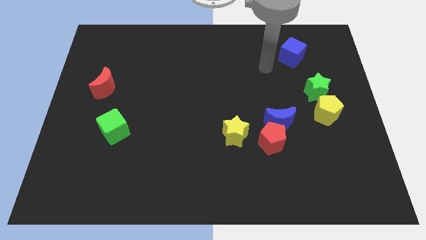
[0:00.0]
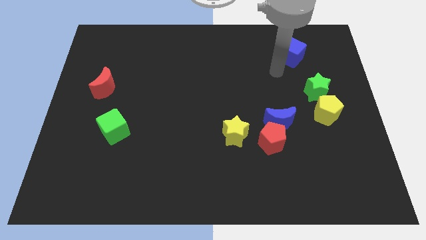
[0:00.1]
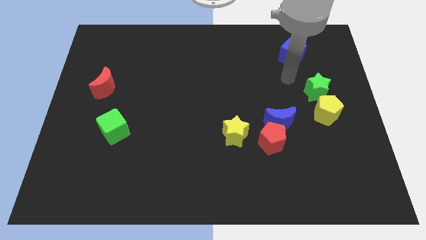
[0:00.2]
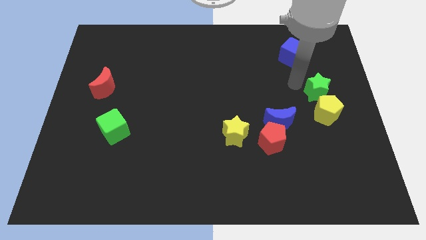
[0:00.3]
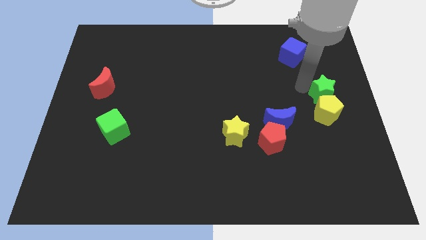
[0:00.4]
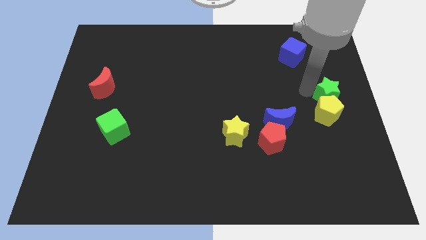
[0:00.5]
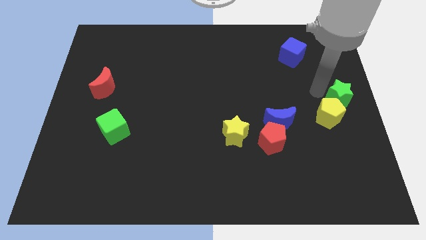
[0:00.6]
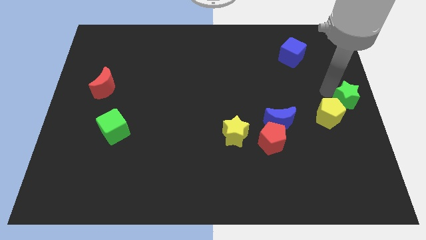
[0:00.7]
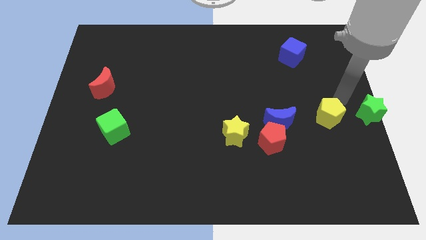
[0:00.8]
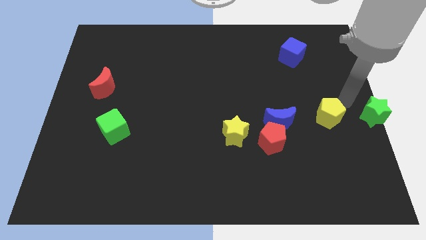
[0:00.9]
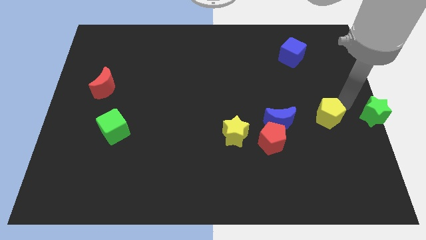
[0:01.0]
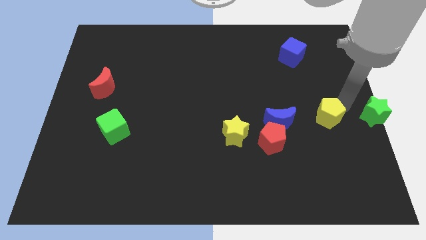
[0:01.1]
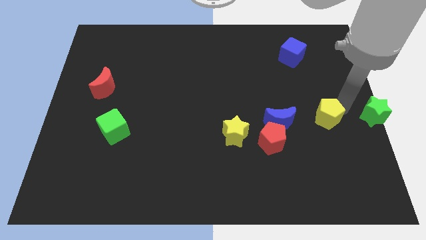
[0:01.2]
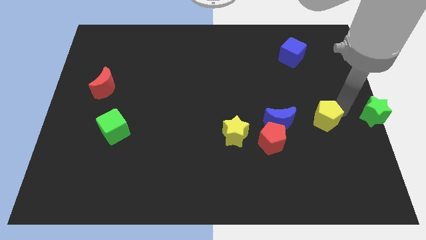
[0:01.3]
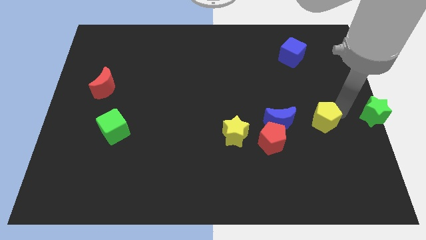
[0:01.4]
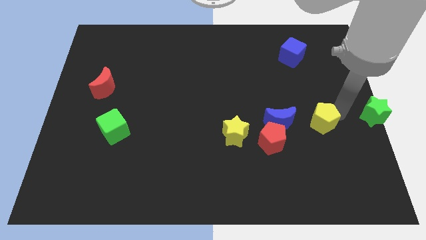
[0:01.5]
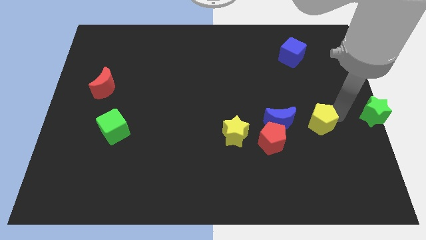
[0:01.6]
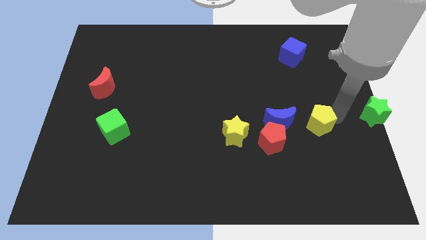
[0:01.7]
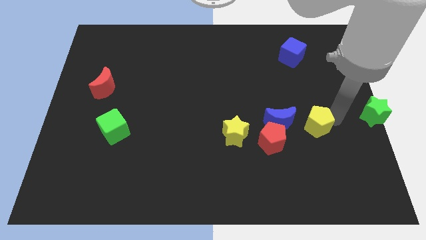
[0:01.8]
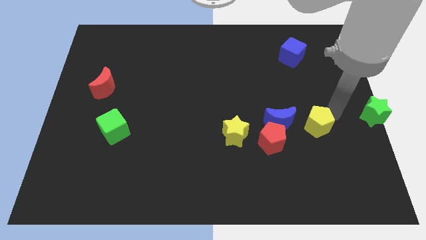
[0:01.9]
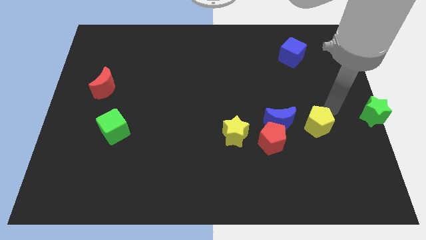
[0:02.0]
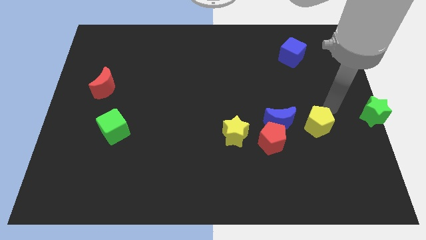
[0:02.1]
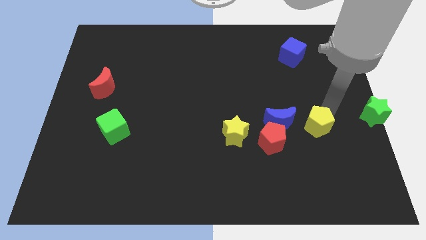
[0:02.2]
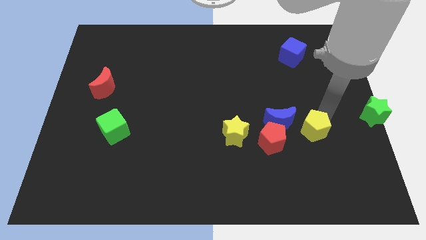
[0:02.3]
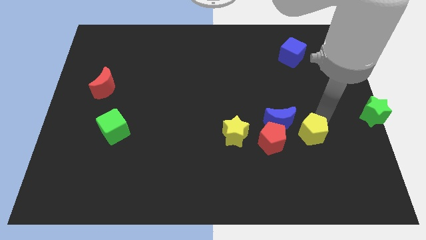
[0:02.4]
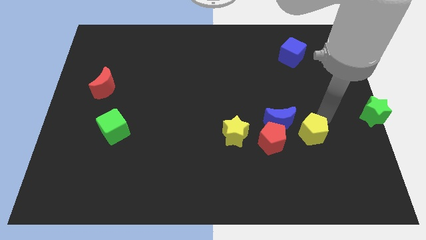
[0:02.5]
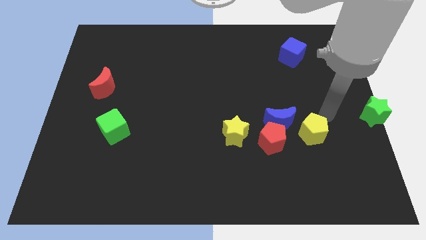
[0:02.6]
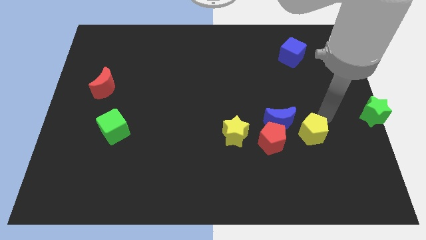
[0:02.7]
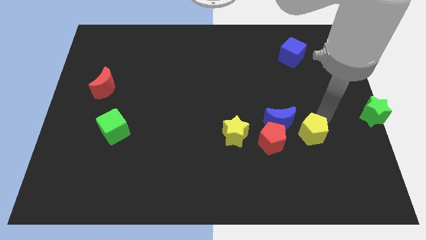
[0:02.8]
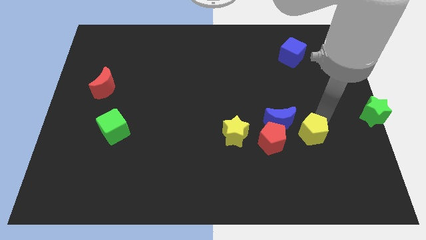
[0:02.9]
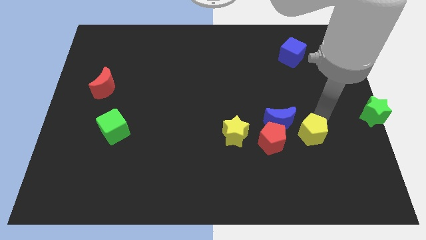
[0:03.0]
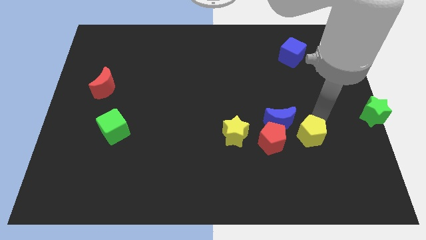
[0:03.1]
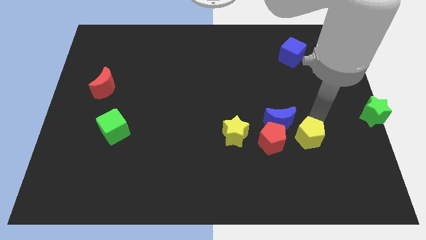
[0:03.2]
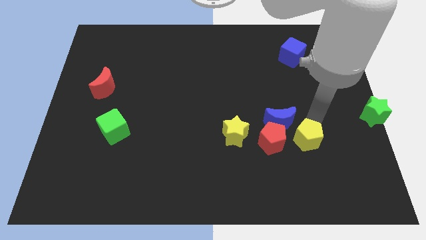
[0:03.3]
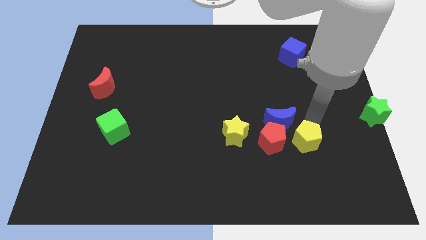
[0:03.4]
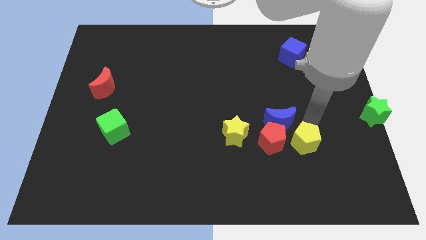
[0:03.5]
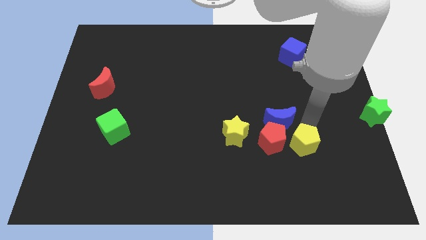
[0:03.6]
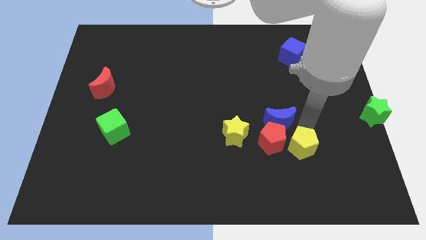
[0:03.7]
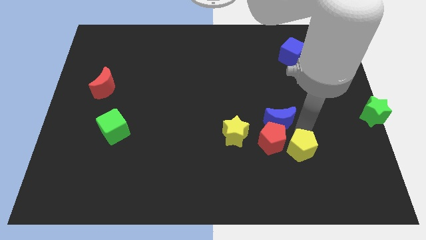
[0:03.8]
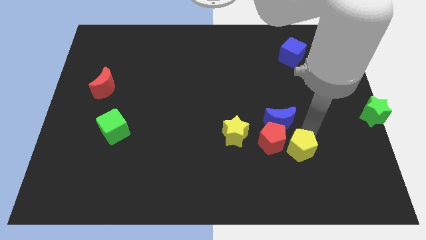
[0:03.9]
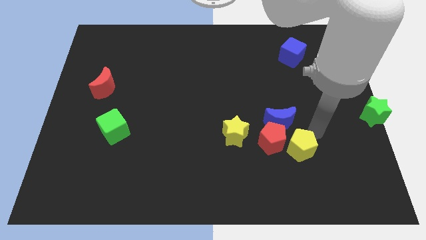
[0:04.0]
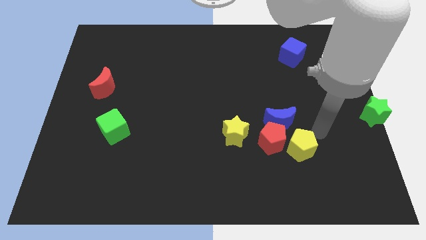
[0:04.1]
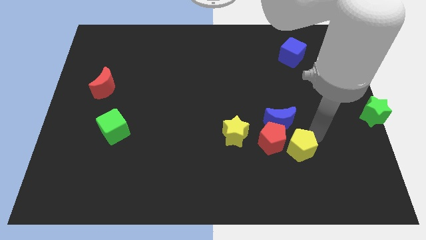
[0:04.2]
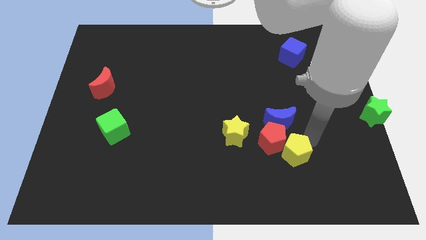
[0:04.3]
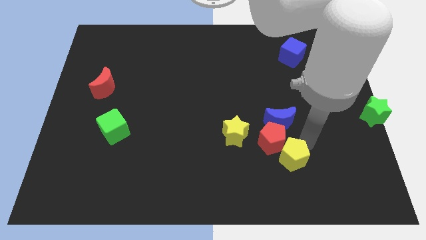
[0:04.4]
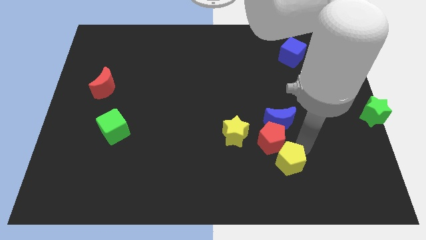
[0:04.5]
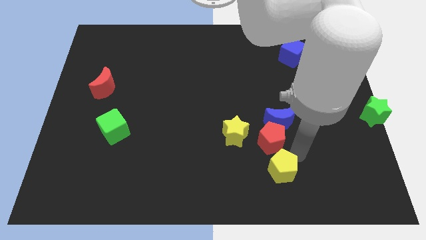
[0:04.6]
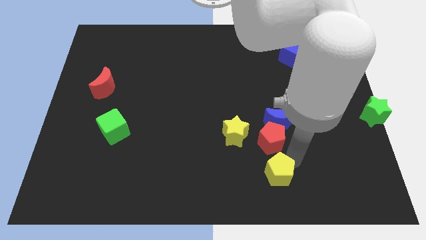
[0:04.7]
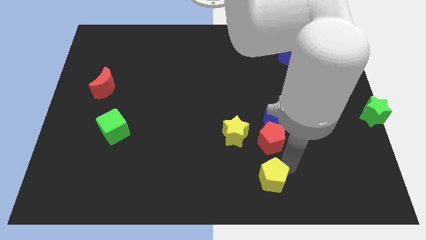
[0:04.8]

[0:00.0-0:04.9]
put the yellow pentagon to the bottom side
